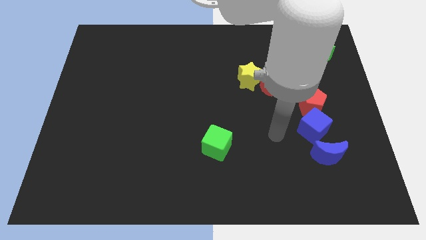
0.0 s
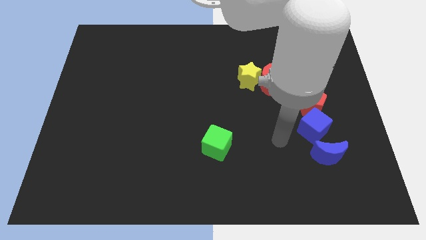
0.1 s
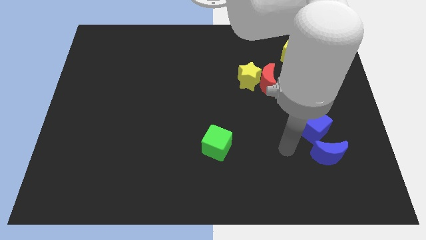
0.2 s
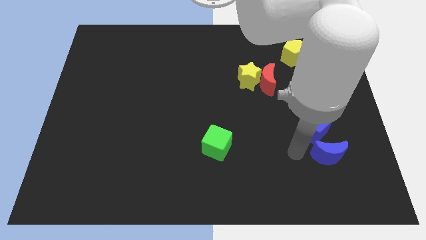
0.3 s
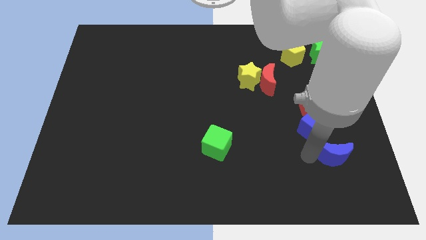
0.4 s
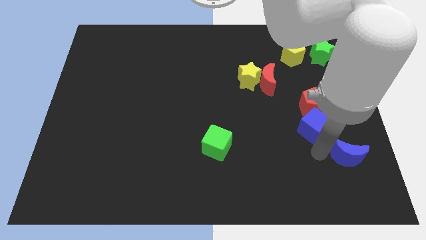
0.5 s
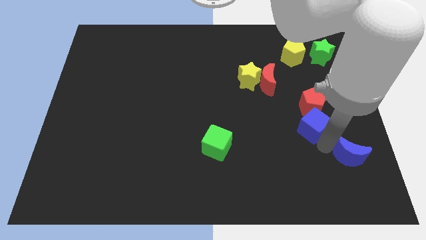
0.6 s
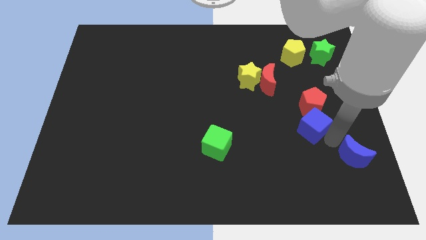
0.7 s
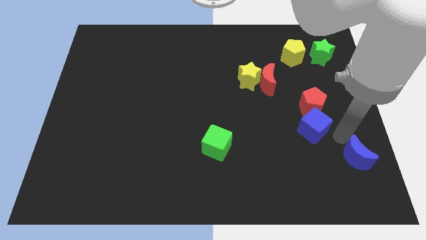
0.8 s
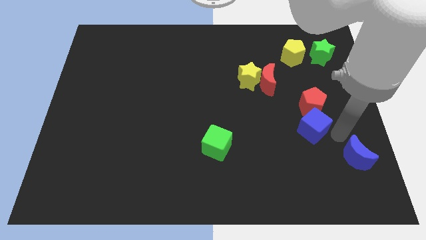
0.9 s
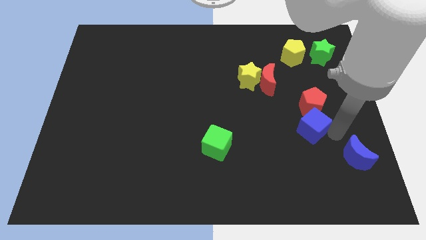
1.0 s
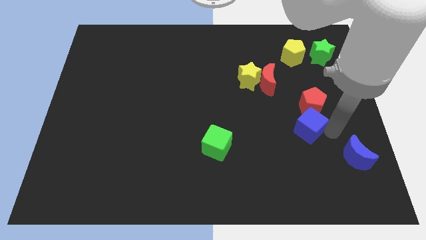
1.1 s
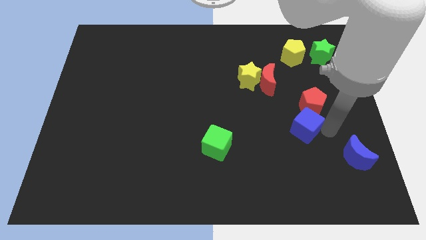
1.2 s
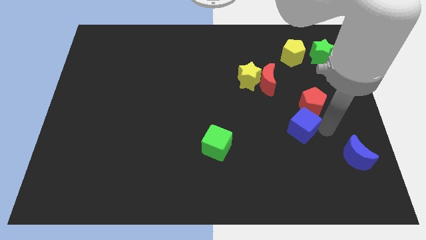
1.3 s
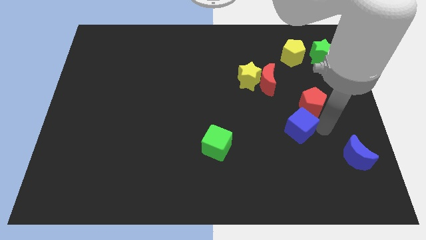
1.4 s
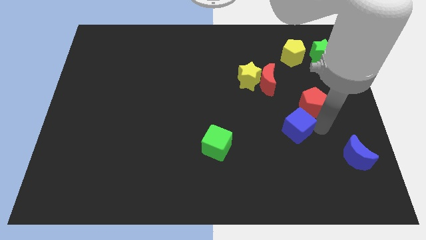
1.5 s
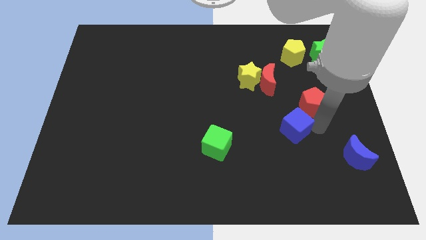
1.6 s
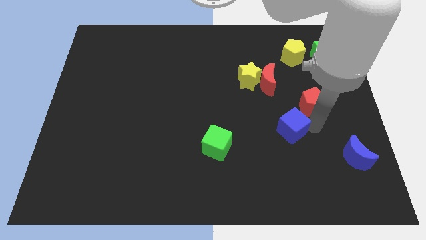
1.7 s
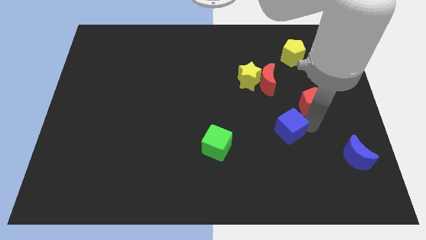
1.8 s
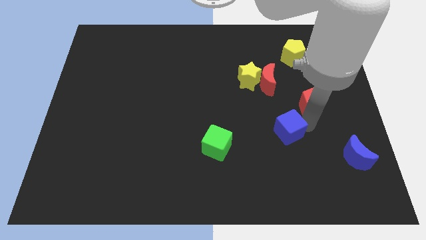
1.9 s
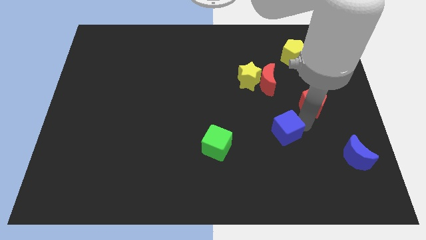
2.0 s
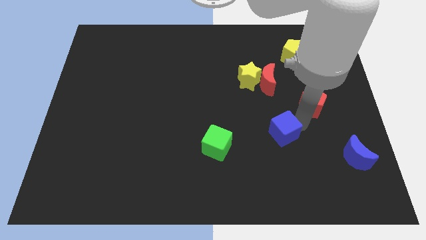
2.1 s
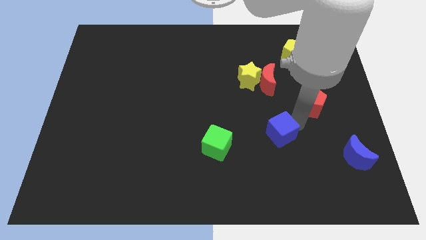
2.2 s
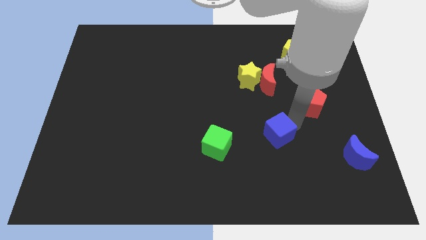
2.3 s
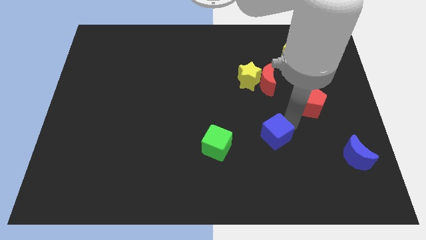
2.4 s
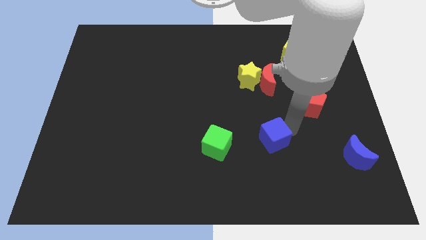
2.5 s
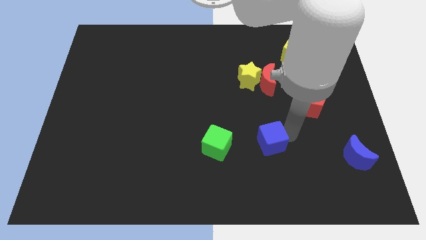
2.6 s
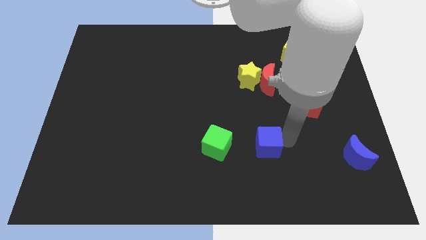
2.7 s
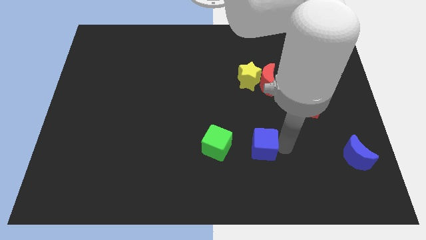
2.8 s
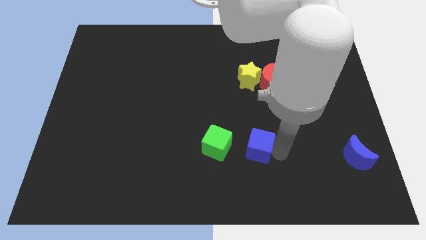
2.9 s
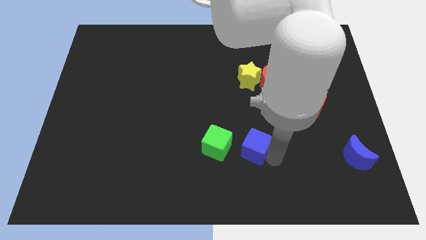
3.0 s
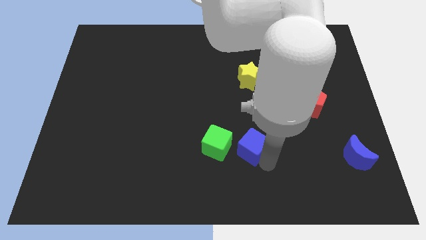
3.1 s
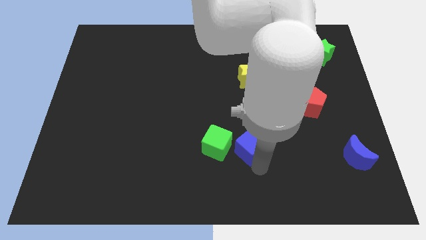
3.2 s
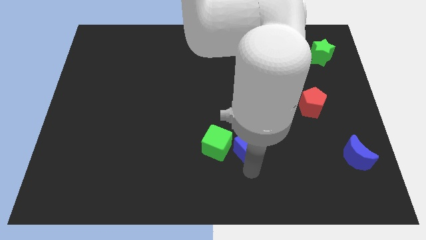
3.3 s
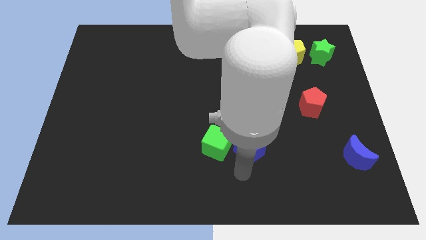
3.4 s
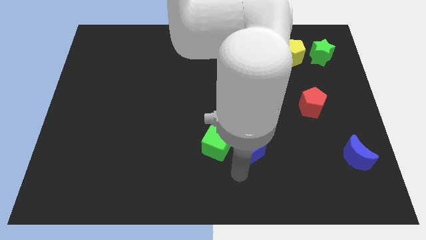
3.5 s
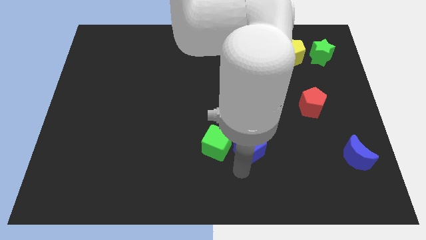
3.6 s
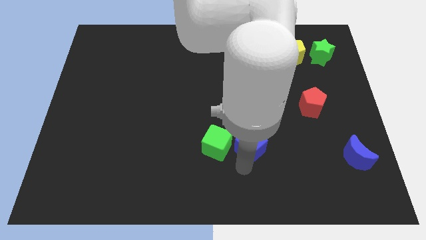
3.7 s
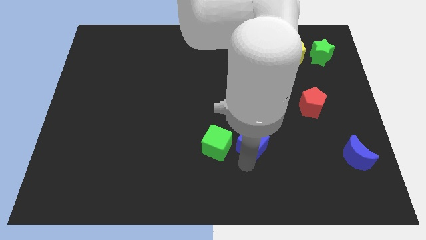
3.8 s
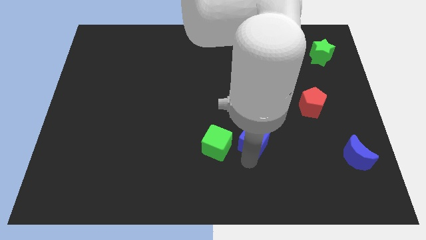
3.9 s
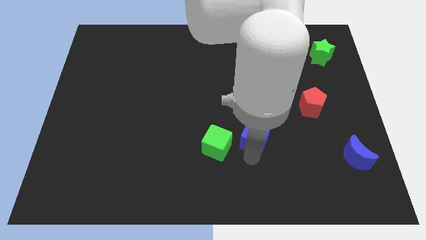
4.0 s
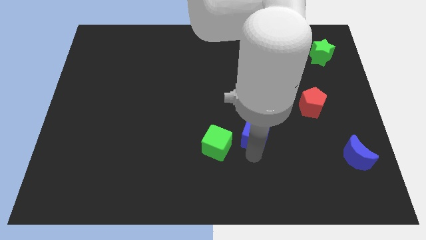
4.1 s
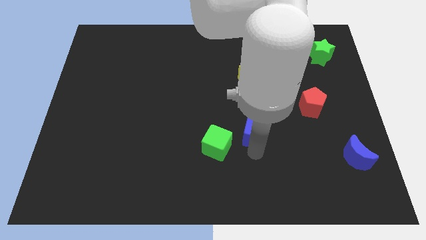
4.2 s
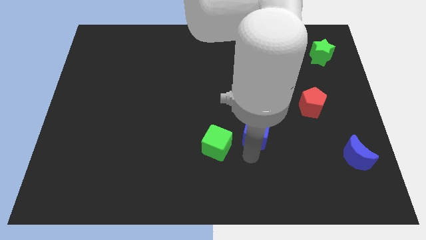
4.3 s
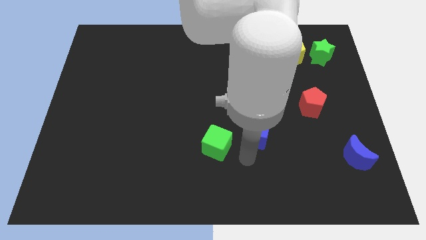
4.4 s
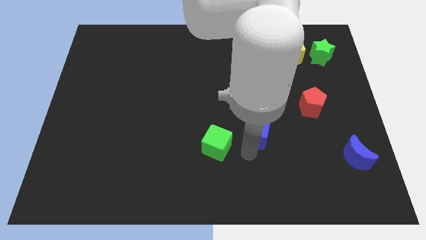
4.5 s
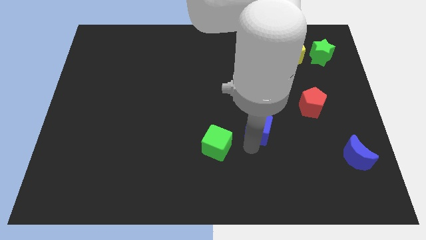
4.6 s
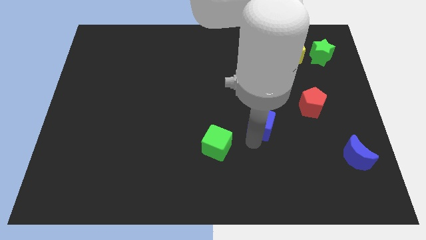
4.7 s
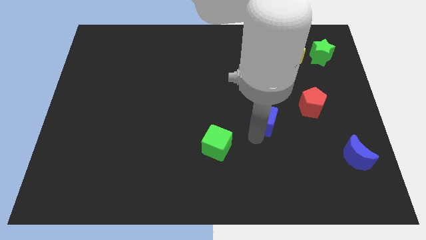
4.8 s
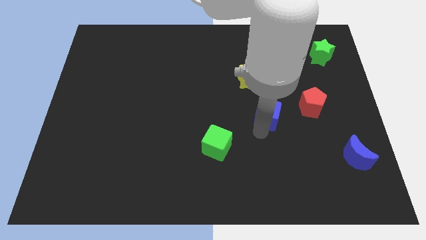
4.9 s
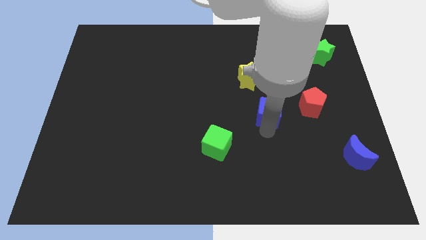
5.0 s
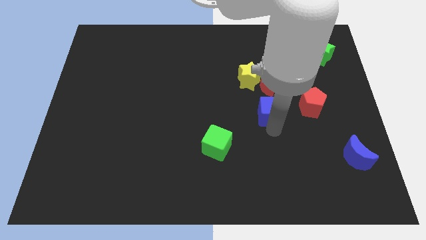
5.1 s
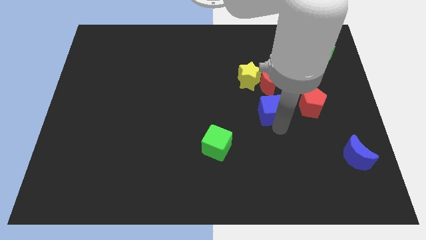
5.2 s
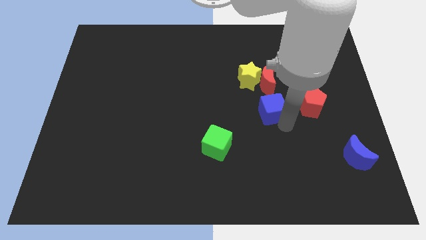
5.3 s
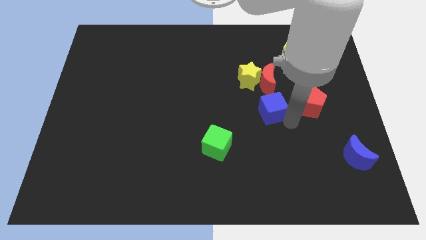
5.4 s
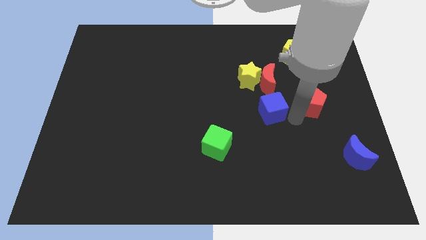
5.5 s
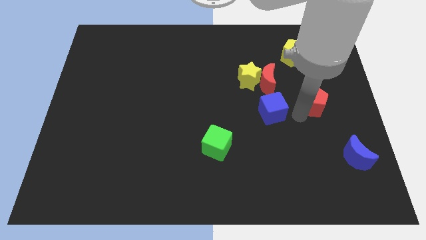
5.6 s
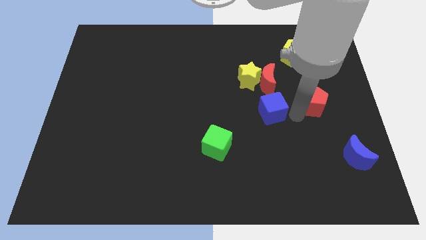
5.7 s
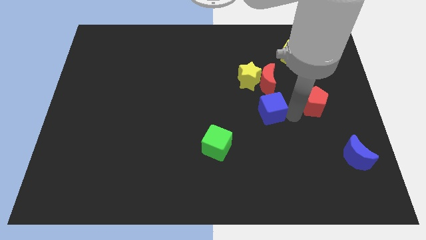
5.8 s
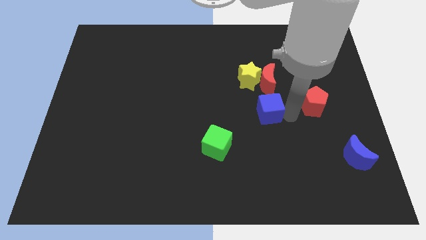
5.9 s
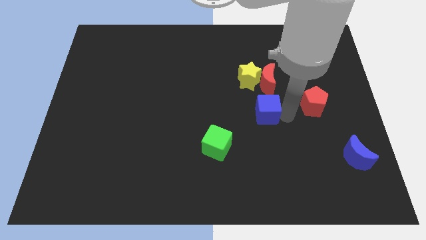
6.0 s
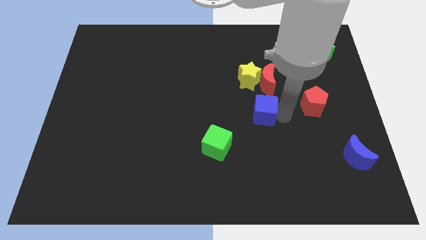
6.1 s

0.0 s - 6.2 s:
slide the blue cube to the center

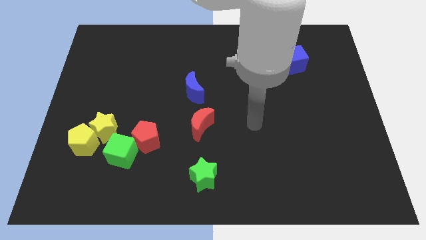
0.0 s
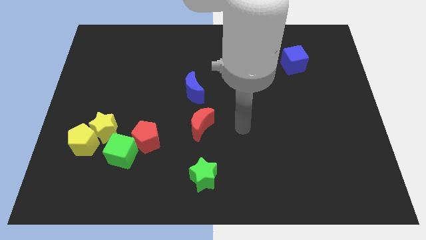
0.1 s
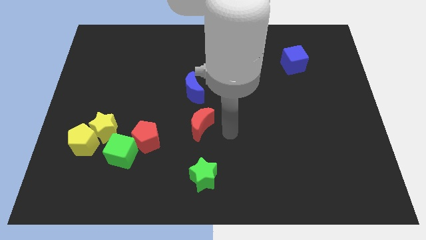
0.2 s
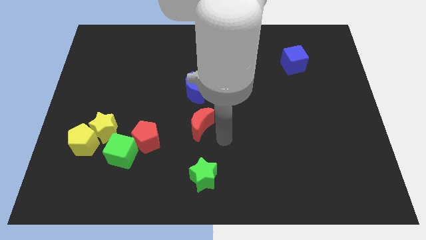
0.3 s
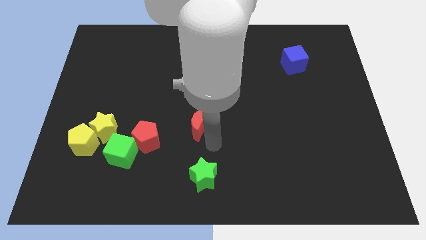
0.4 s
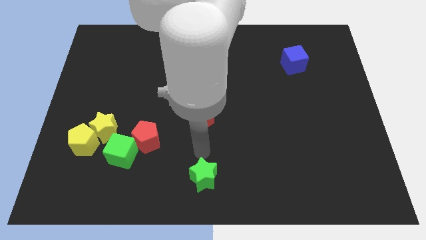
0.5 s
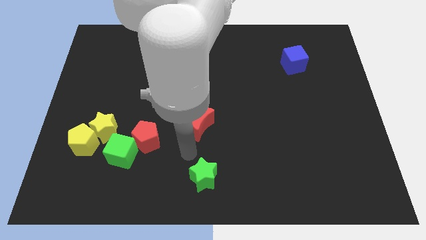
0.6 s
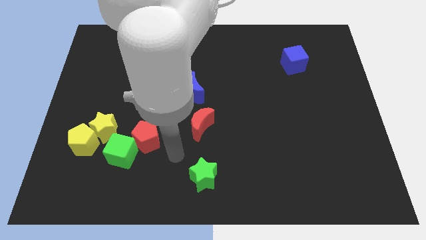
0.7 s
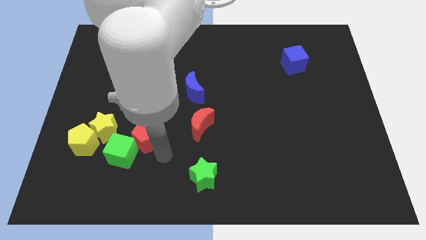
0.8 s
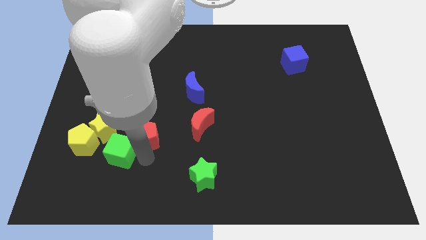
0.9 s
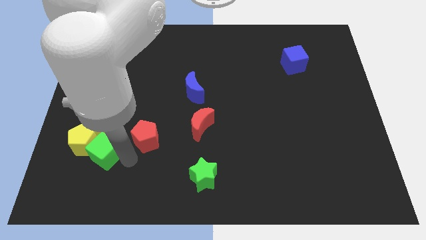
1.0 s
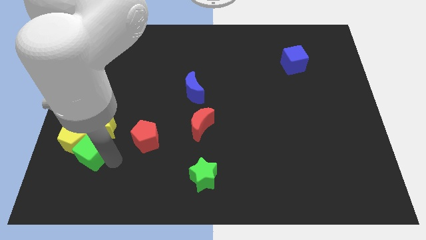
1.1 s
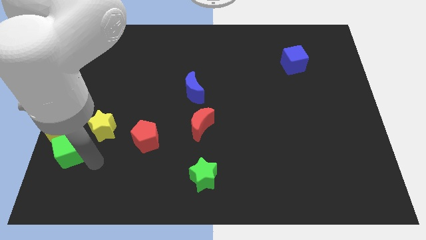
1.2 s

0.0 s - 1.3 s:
slide the yellow pentagon to the left side of the board
